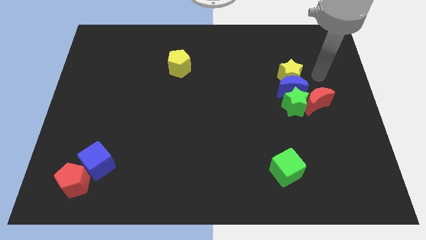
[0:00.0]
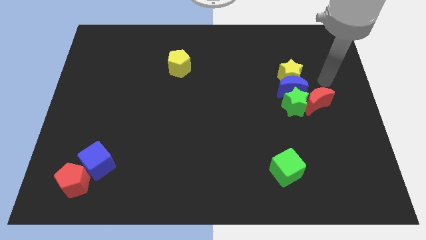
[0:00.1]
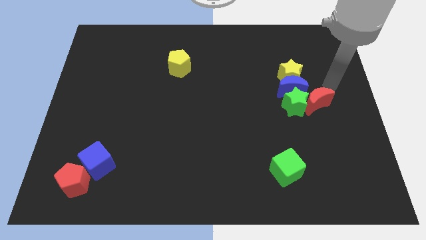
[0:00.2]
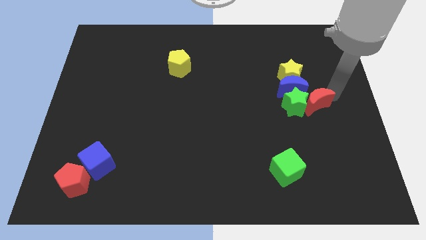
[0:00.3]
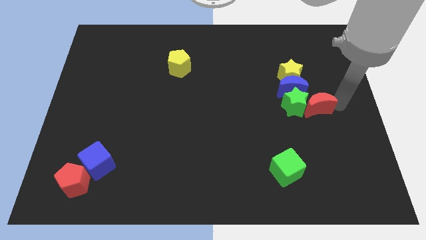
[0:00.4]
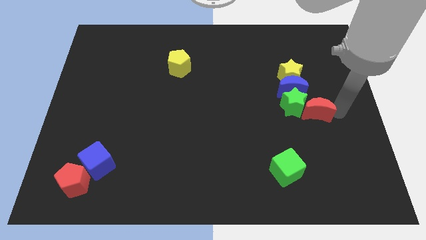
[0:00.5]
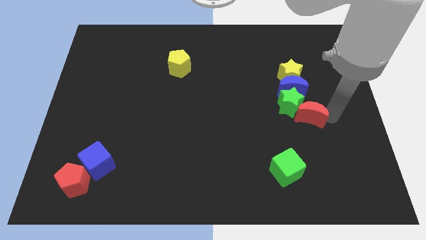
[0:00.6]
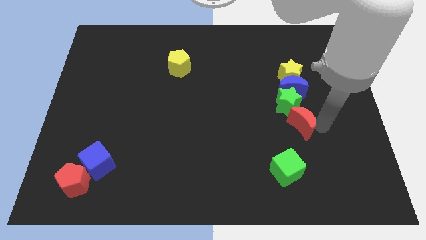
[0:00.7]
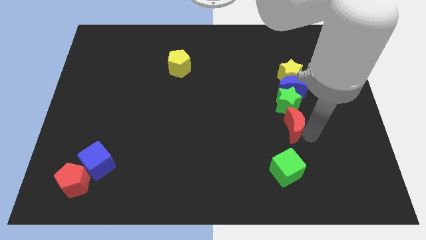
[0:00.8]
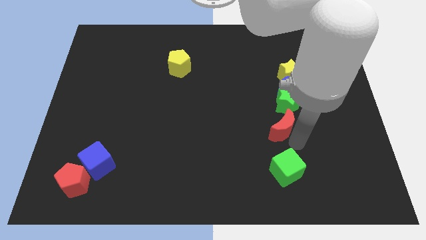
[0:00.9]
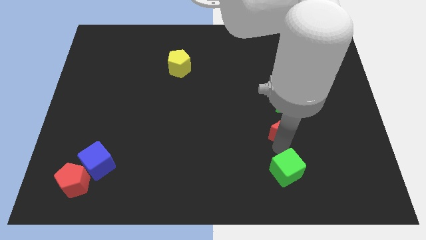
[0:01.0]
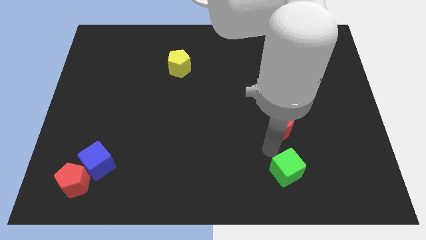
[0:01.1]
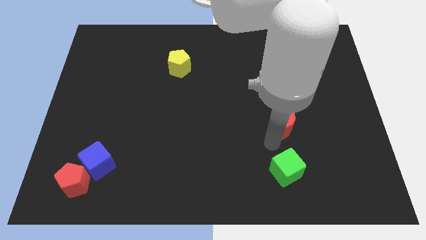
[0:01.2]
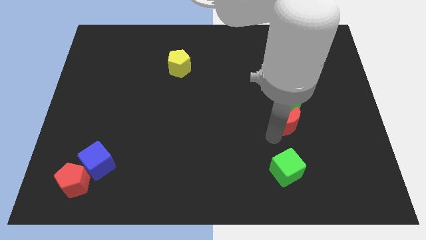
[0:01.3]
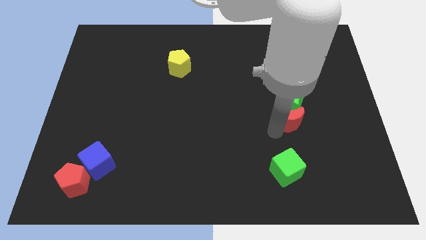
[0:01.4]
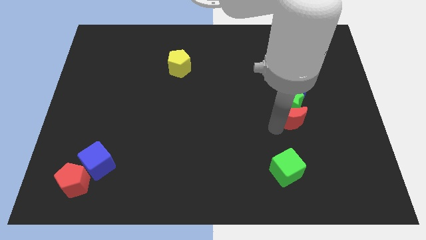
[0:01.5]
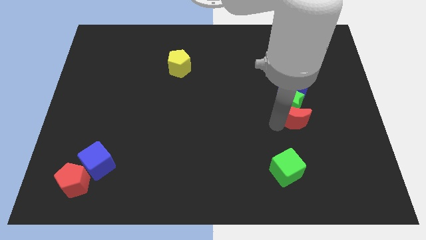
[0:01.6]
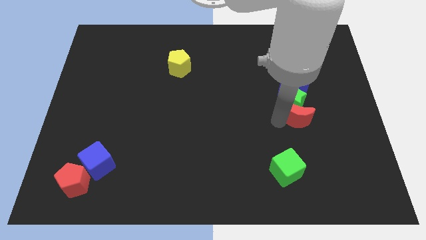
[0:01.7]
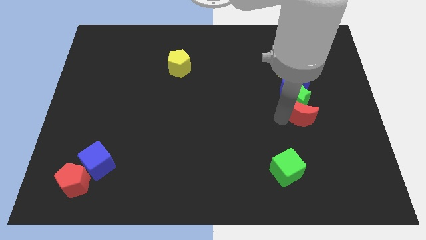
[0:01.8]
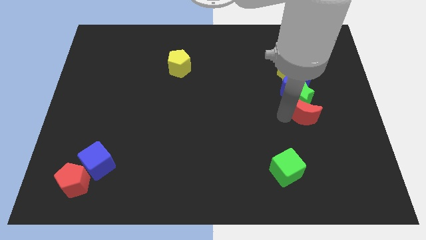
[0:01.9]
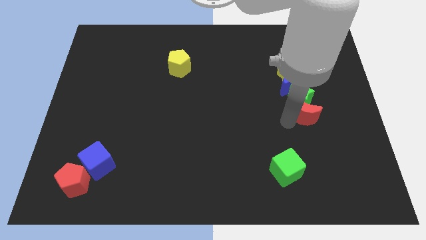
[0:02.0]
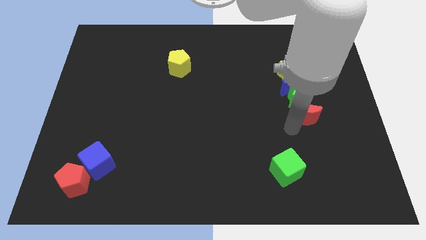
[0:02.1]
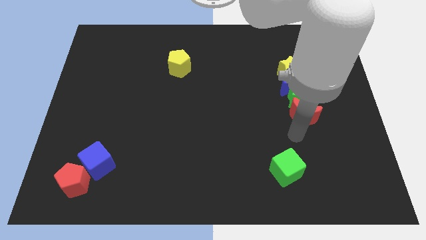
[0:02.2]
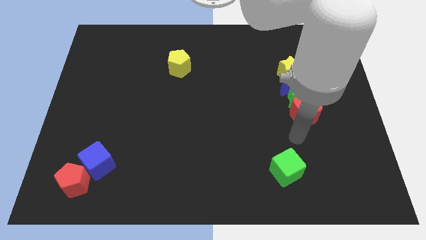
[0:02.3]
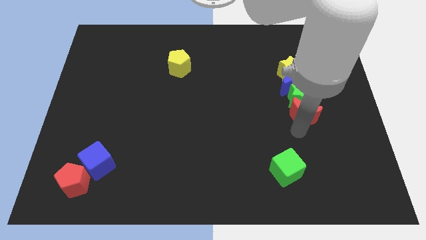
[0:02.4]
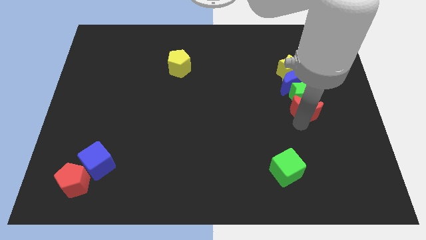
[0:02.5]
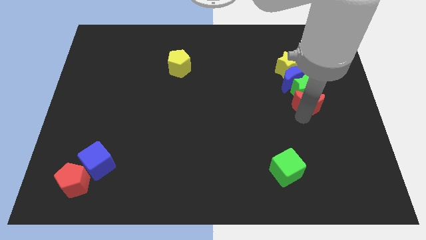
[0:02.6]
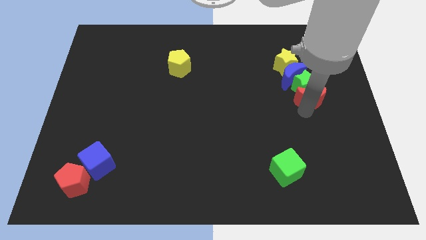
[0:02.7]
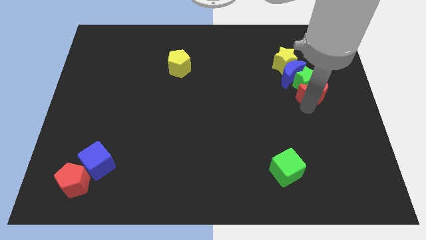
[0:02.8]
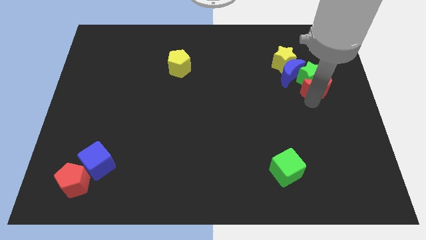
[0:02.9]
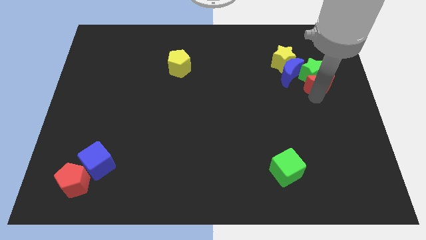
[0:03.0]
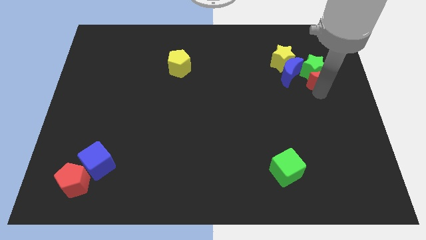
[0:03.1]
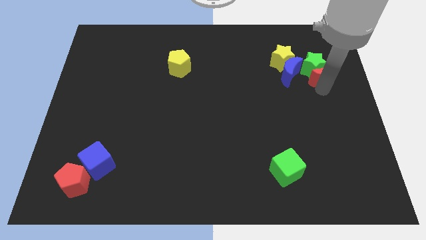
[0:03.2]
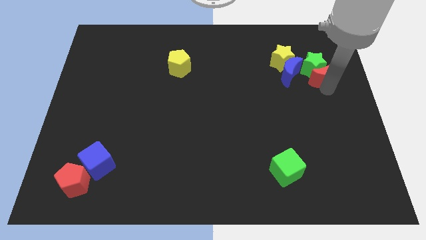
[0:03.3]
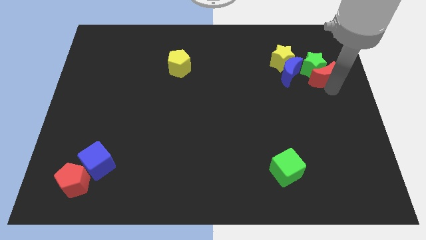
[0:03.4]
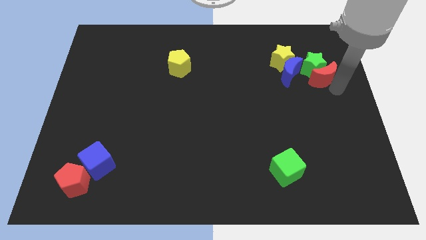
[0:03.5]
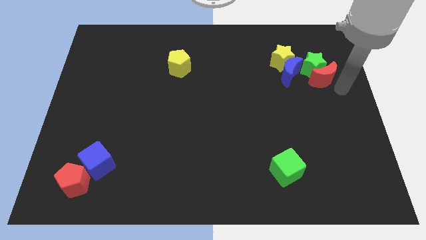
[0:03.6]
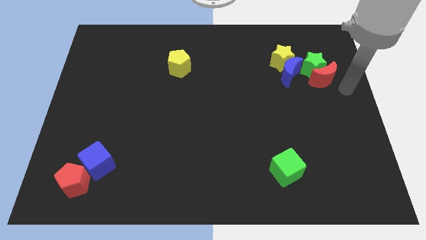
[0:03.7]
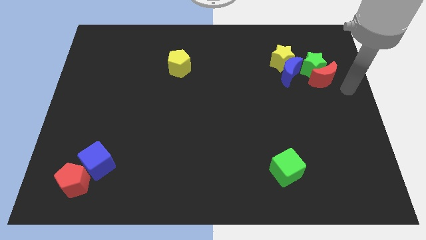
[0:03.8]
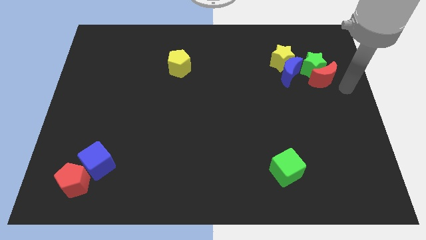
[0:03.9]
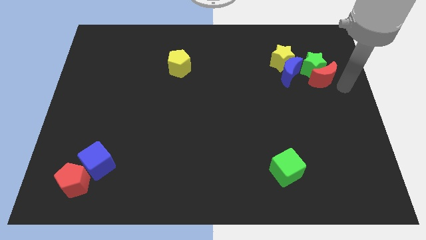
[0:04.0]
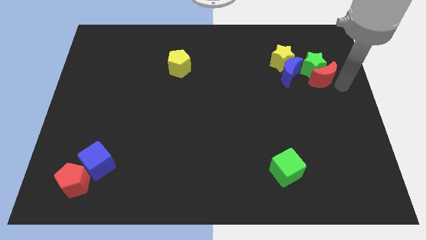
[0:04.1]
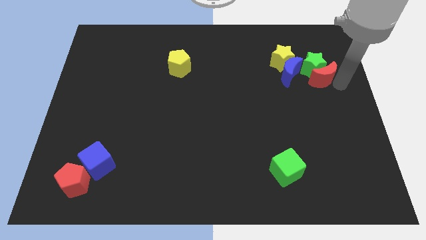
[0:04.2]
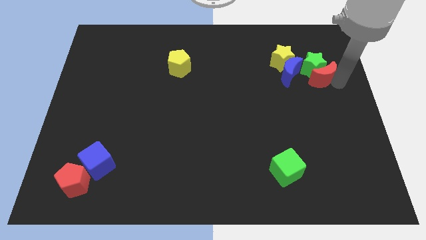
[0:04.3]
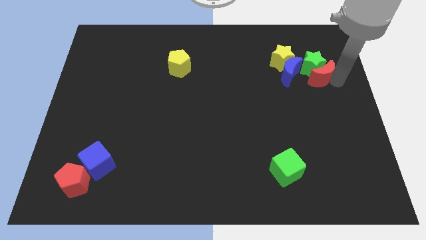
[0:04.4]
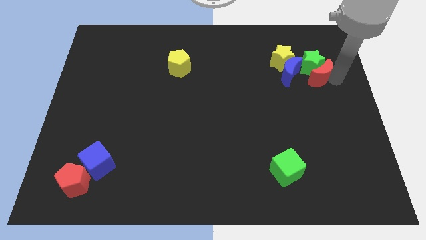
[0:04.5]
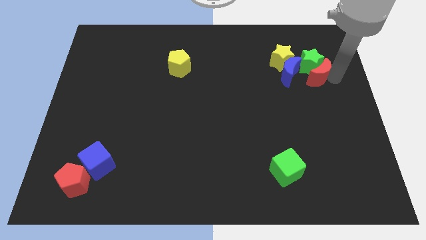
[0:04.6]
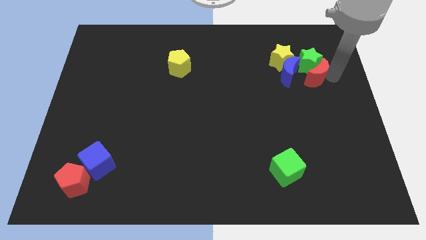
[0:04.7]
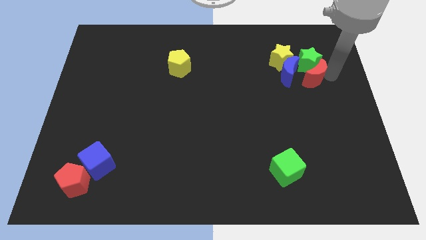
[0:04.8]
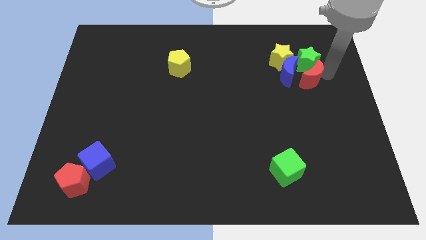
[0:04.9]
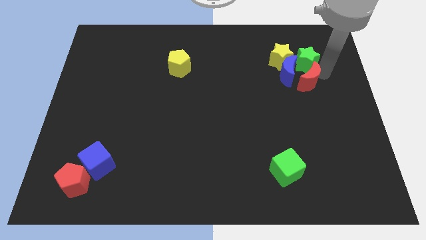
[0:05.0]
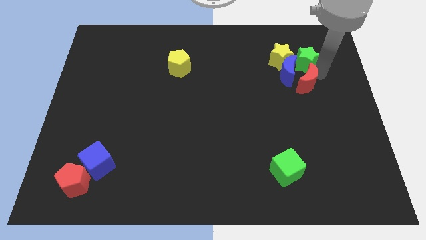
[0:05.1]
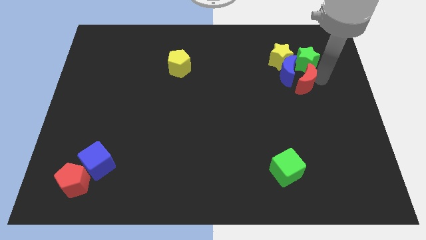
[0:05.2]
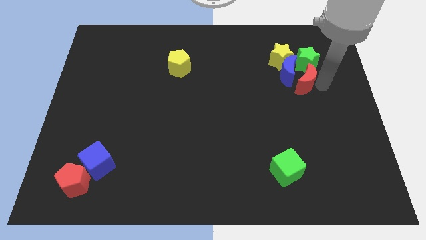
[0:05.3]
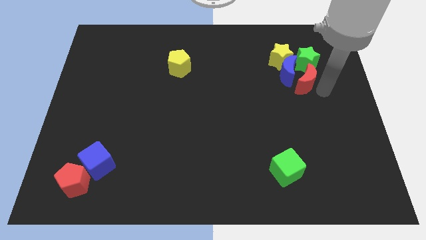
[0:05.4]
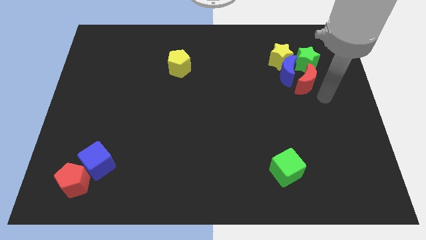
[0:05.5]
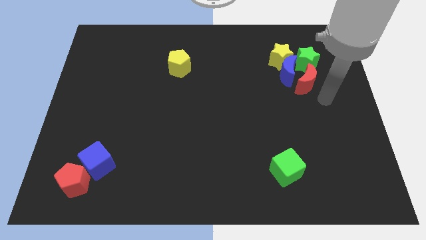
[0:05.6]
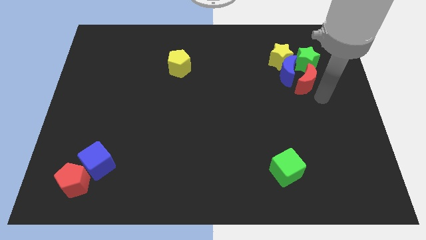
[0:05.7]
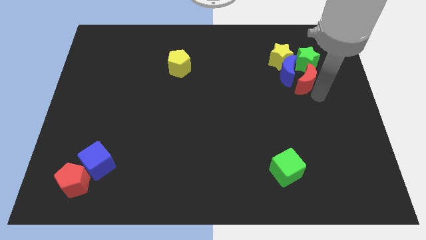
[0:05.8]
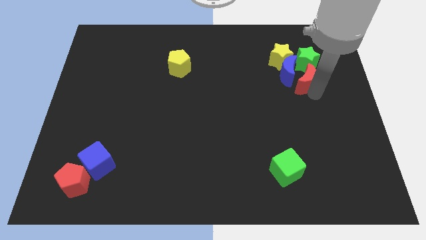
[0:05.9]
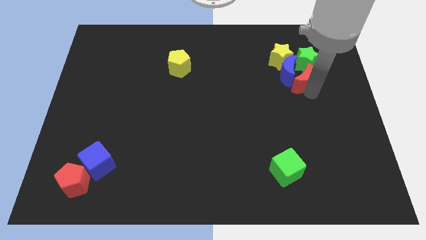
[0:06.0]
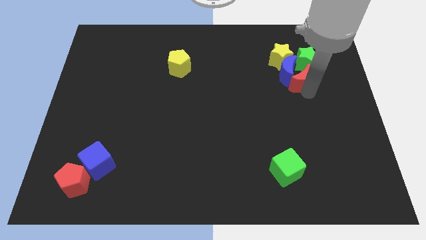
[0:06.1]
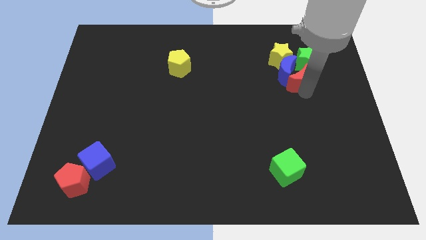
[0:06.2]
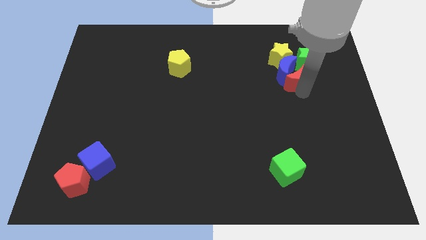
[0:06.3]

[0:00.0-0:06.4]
push the red moon upwards and left diagonally a bit

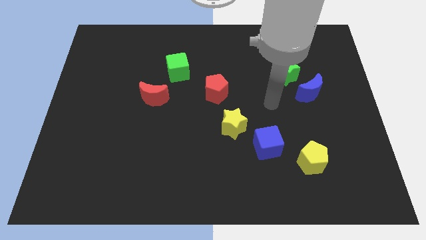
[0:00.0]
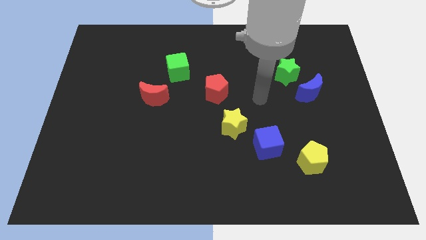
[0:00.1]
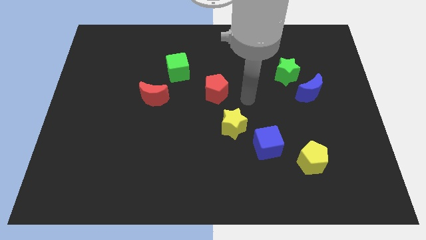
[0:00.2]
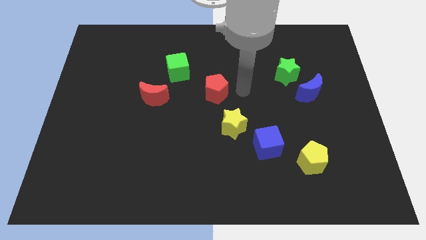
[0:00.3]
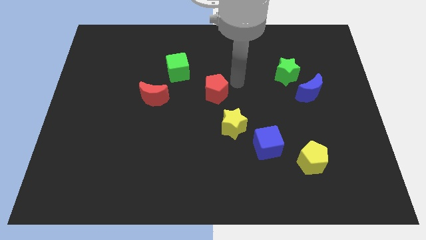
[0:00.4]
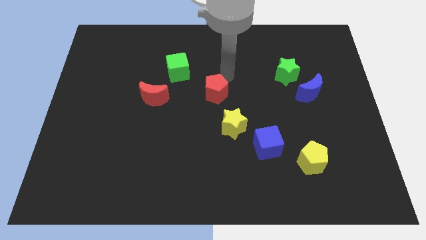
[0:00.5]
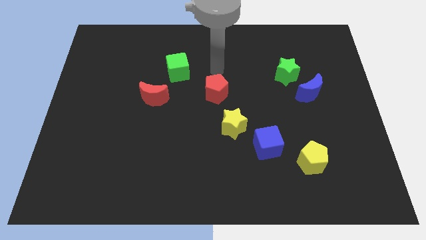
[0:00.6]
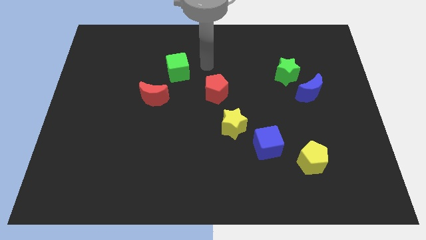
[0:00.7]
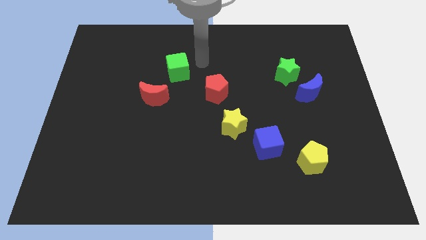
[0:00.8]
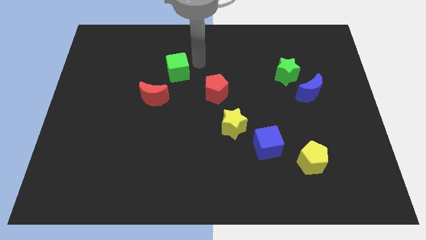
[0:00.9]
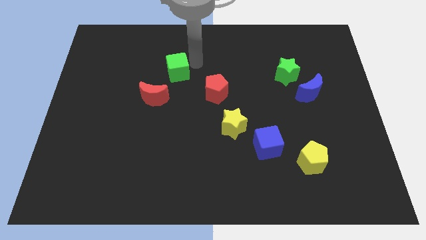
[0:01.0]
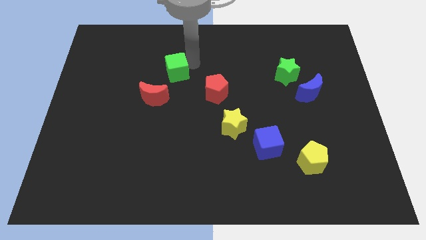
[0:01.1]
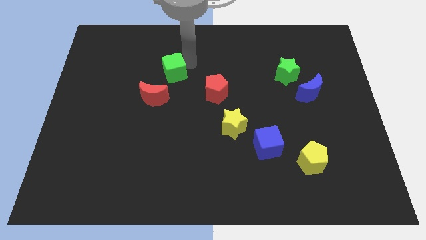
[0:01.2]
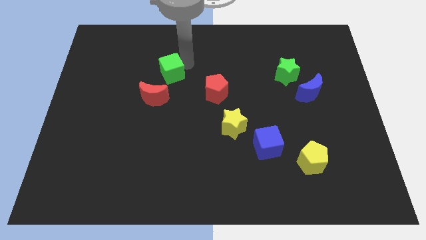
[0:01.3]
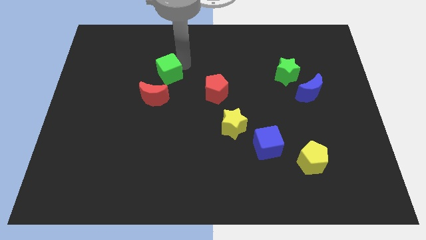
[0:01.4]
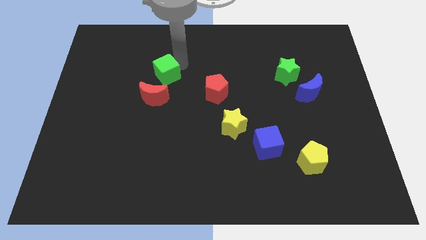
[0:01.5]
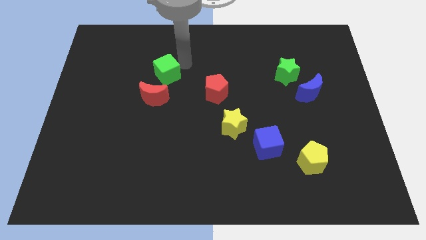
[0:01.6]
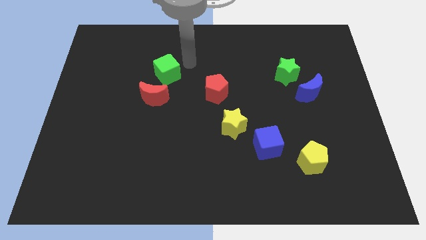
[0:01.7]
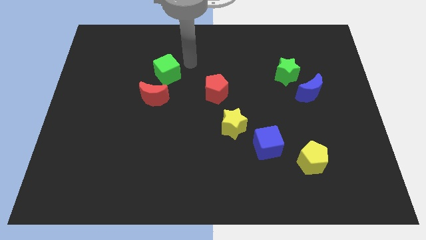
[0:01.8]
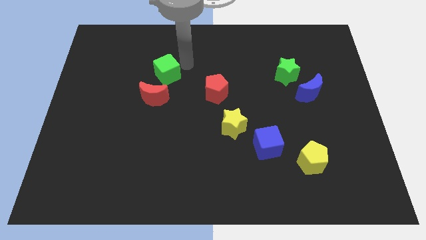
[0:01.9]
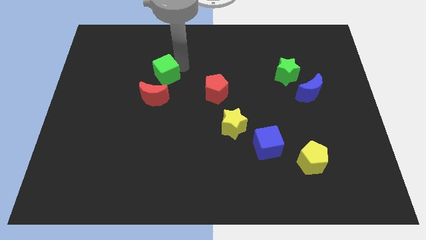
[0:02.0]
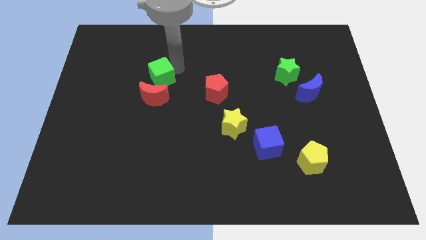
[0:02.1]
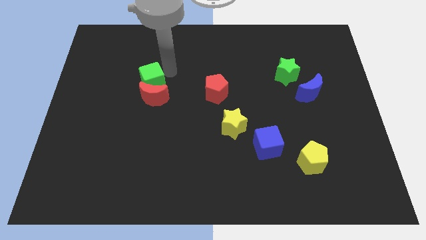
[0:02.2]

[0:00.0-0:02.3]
move the green cube a bit diagonally downwards and to the left
